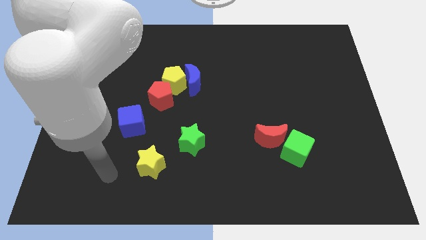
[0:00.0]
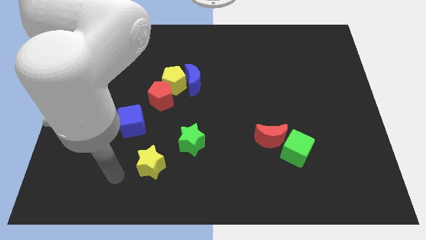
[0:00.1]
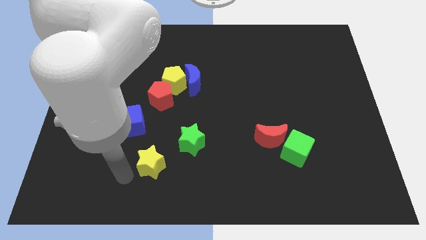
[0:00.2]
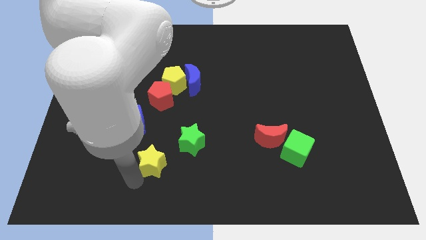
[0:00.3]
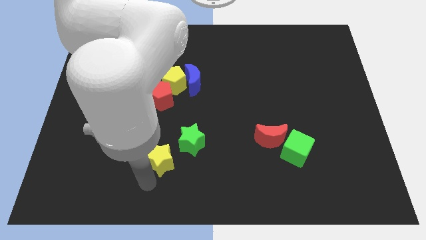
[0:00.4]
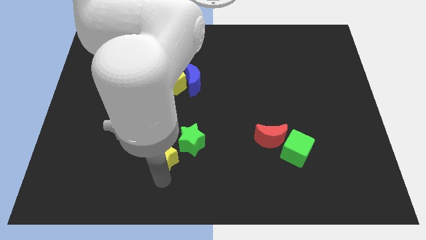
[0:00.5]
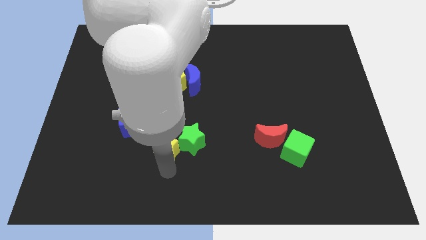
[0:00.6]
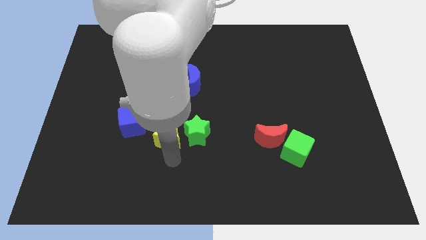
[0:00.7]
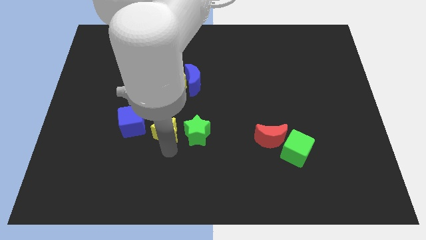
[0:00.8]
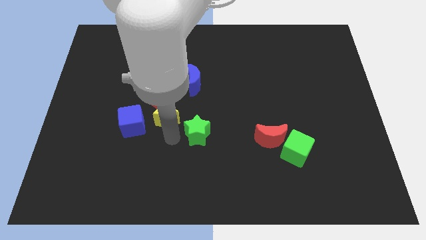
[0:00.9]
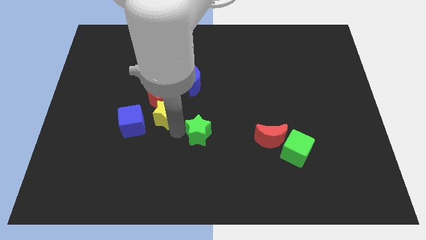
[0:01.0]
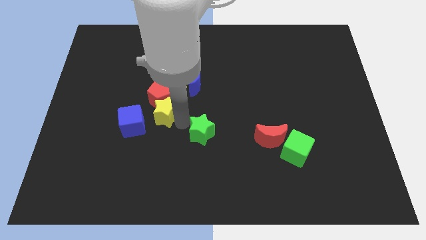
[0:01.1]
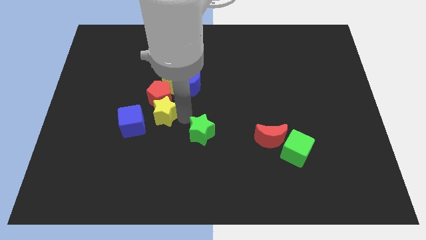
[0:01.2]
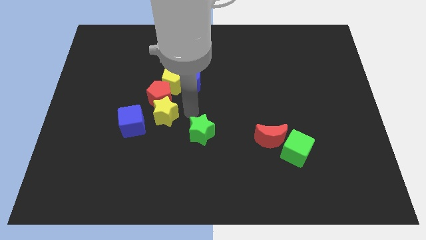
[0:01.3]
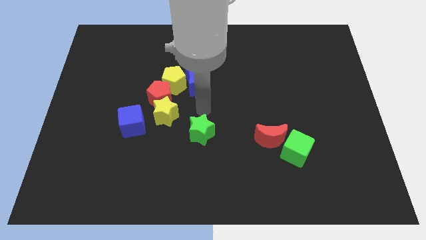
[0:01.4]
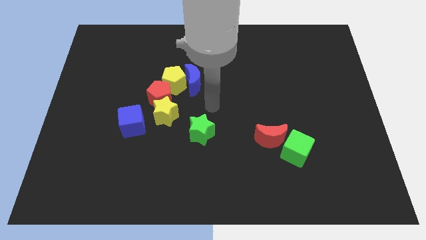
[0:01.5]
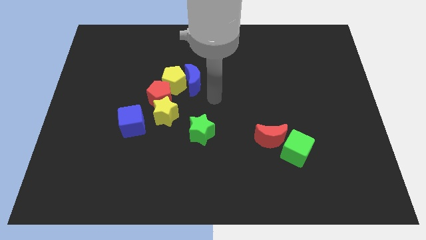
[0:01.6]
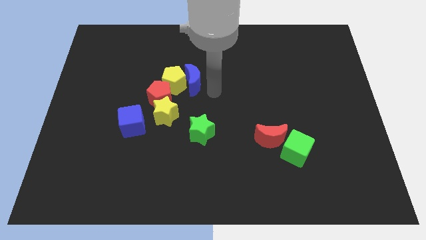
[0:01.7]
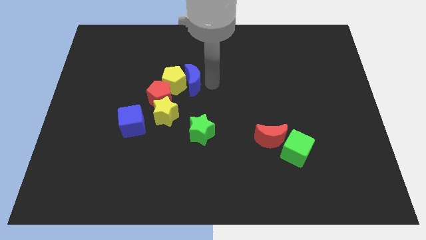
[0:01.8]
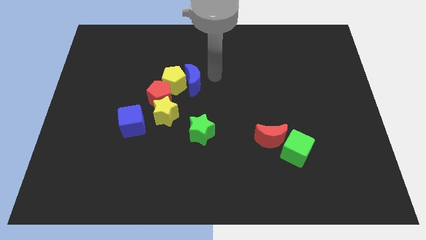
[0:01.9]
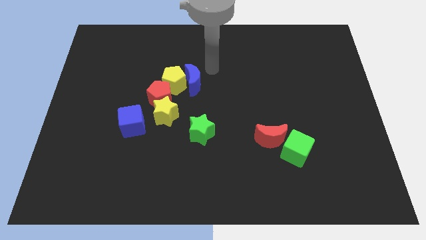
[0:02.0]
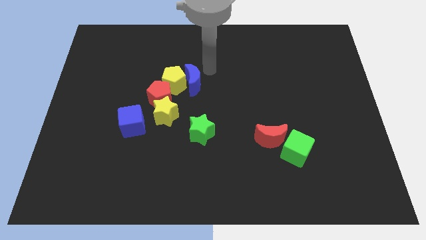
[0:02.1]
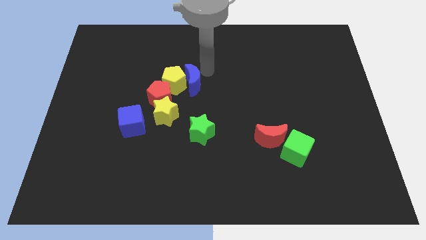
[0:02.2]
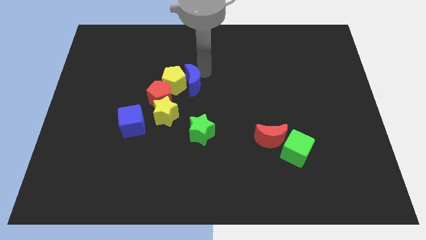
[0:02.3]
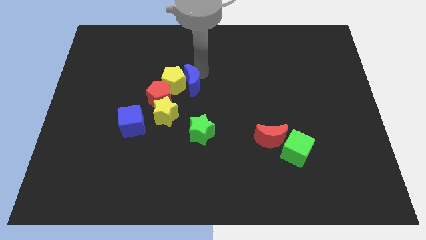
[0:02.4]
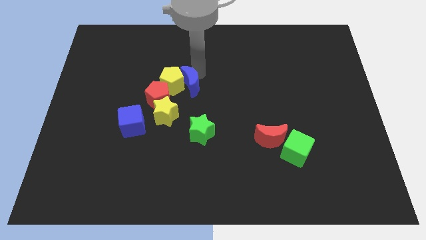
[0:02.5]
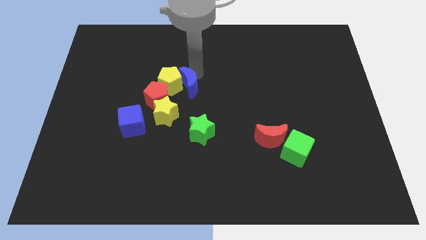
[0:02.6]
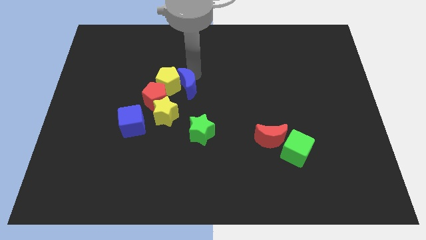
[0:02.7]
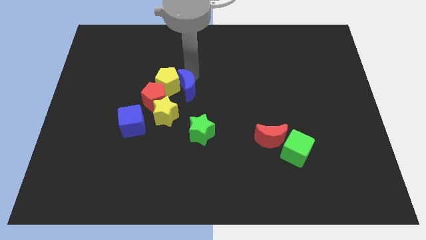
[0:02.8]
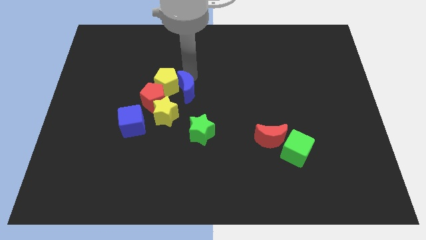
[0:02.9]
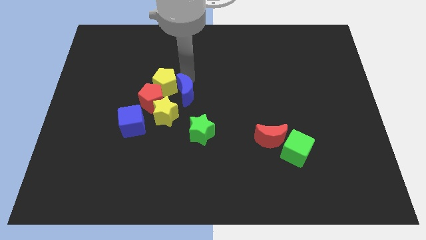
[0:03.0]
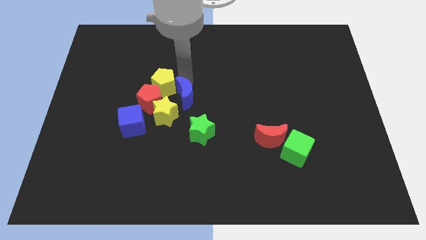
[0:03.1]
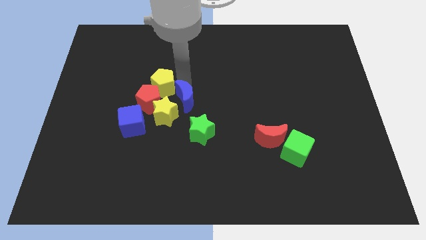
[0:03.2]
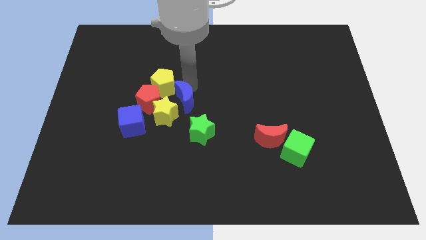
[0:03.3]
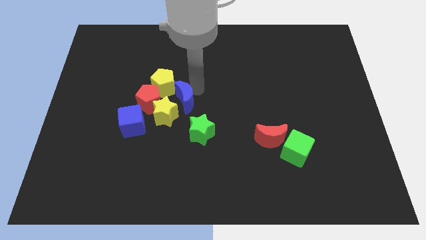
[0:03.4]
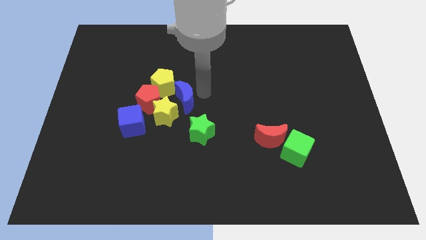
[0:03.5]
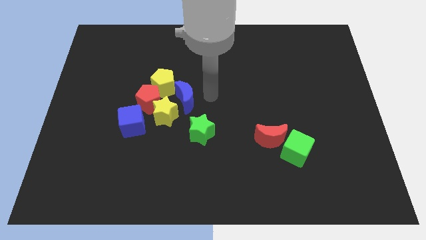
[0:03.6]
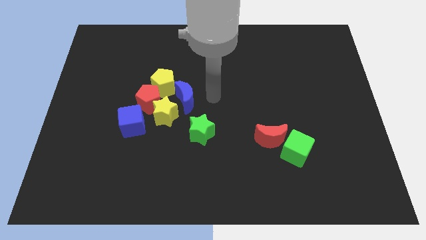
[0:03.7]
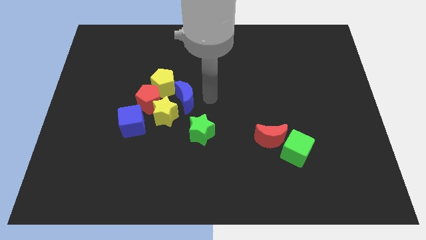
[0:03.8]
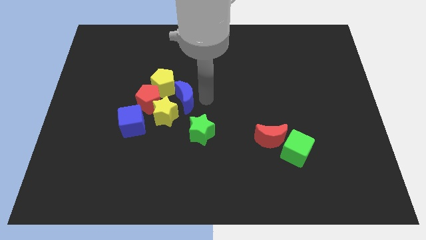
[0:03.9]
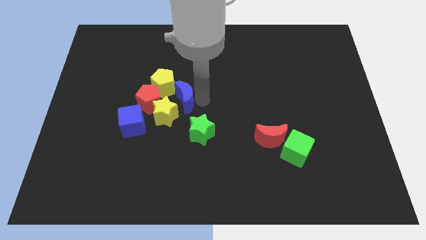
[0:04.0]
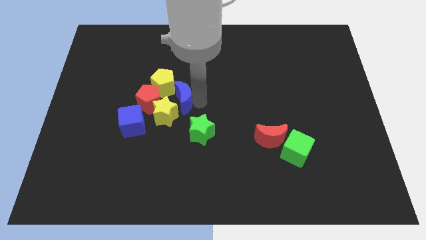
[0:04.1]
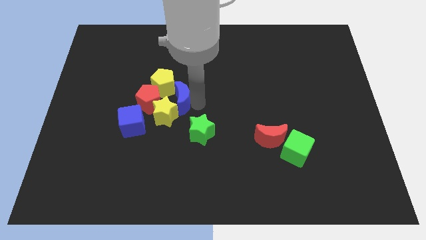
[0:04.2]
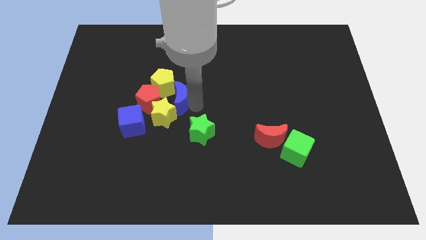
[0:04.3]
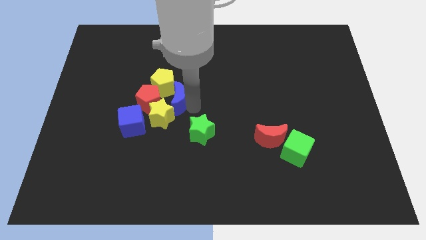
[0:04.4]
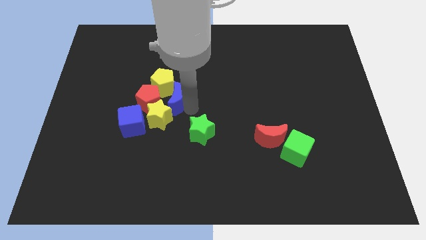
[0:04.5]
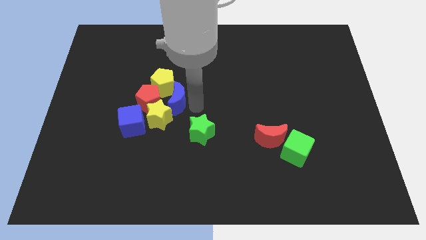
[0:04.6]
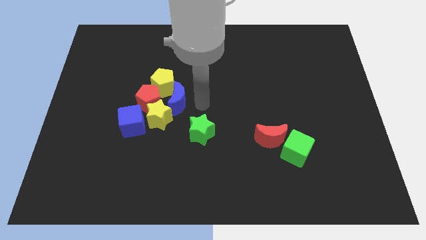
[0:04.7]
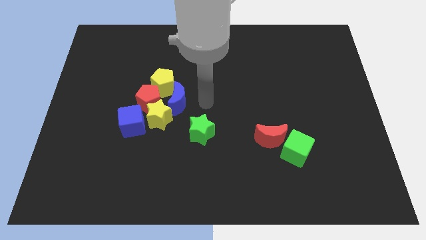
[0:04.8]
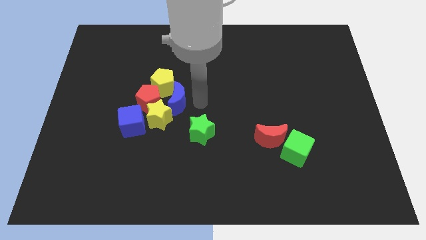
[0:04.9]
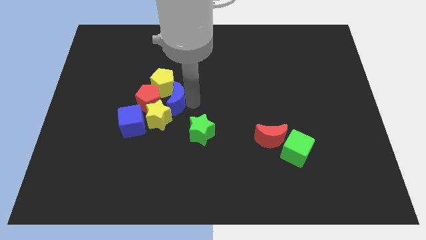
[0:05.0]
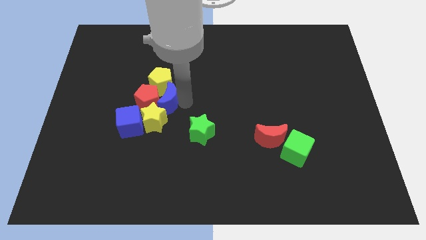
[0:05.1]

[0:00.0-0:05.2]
push the blue moon towards the red pentagon

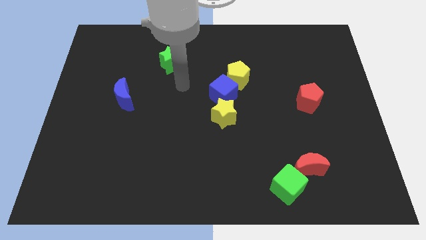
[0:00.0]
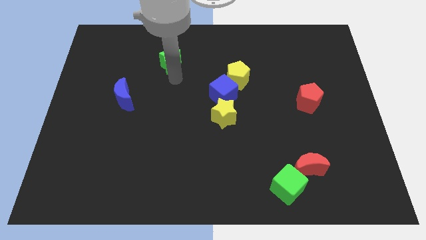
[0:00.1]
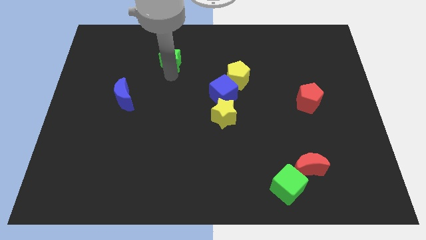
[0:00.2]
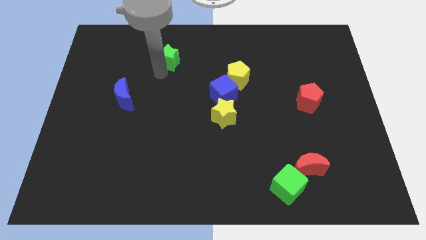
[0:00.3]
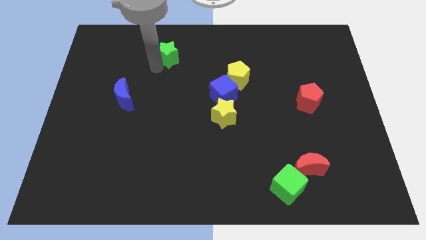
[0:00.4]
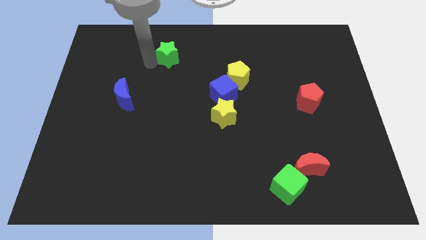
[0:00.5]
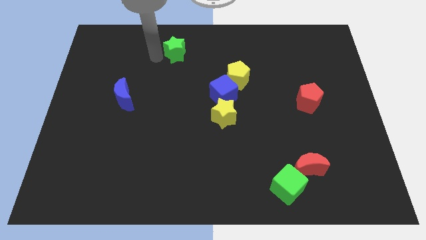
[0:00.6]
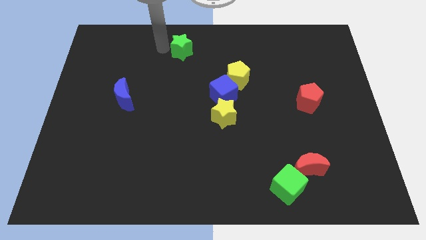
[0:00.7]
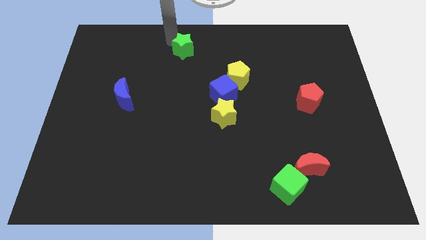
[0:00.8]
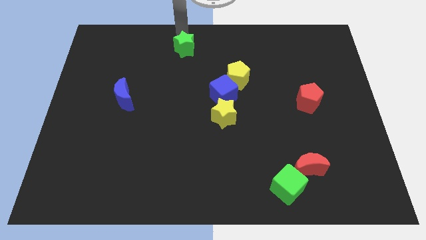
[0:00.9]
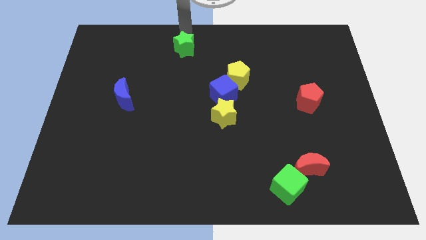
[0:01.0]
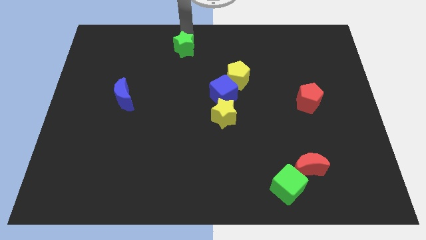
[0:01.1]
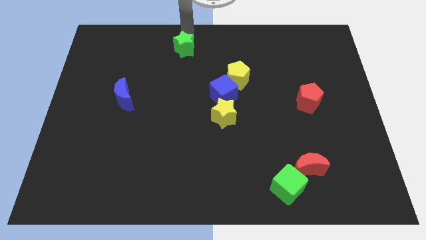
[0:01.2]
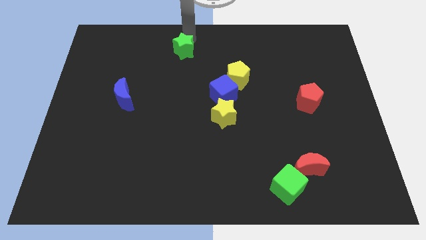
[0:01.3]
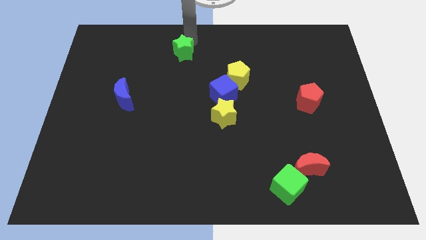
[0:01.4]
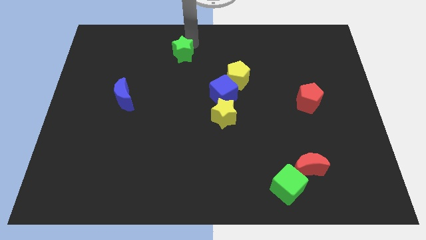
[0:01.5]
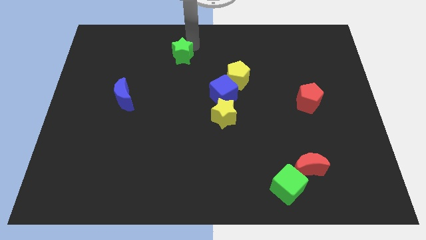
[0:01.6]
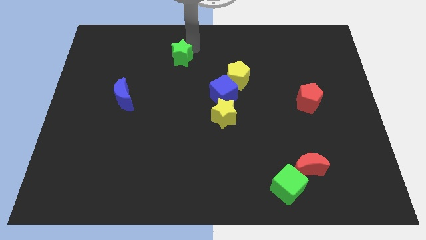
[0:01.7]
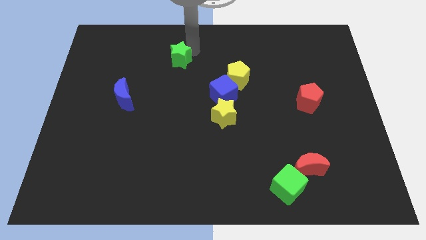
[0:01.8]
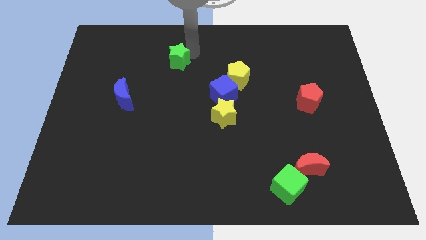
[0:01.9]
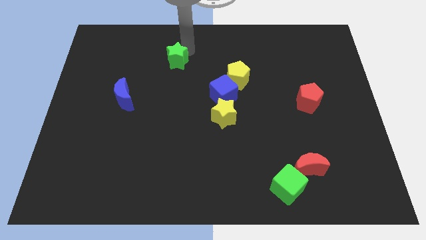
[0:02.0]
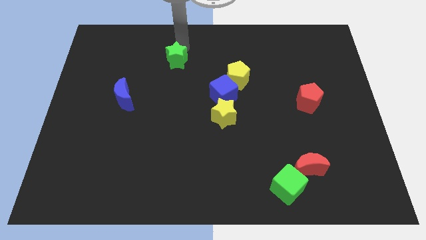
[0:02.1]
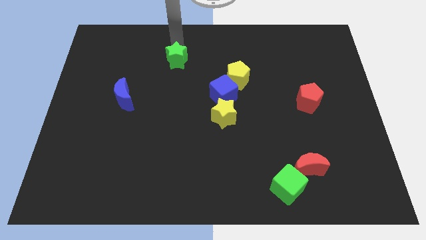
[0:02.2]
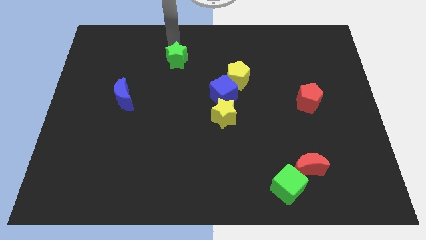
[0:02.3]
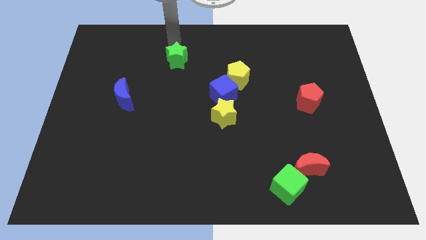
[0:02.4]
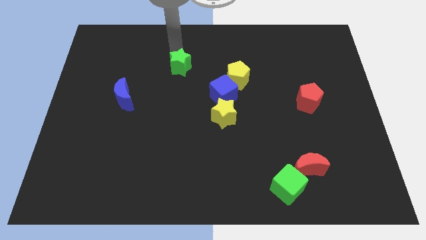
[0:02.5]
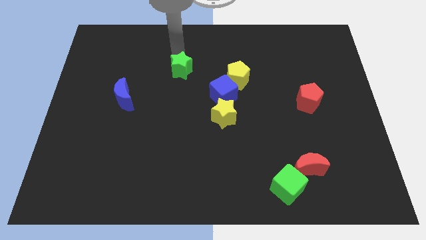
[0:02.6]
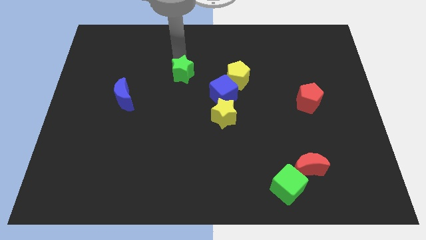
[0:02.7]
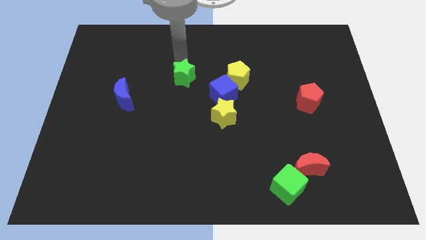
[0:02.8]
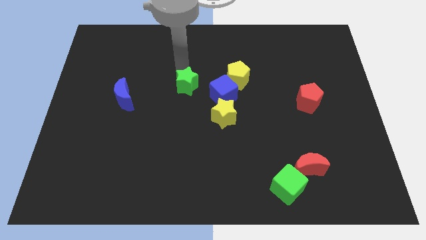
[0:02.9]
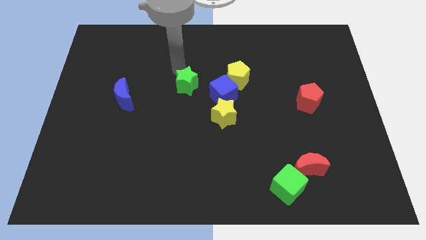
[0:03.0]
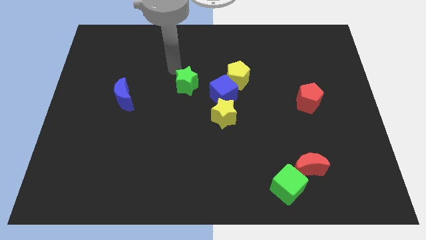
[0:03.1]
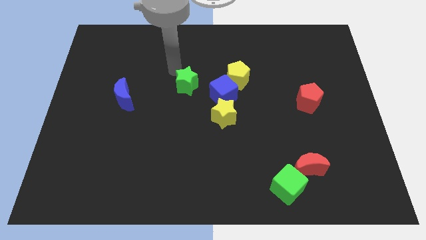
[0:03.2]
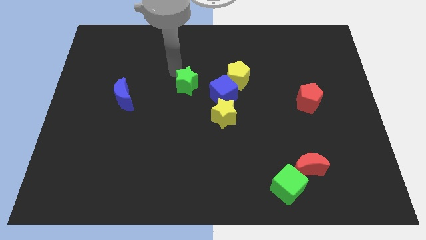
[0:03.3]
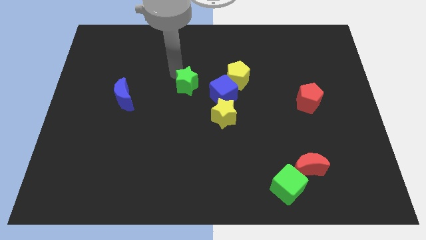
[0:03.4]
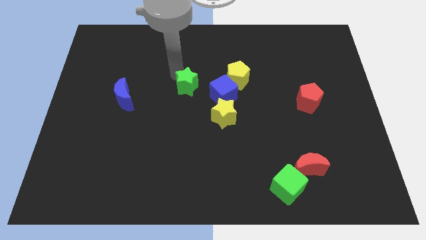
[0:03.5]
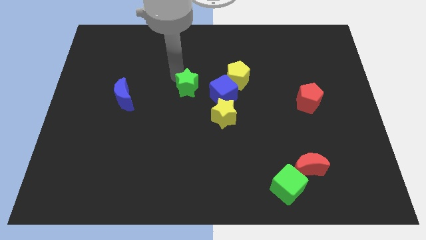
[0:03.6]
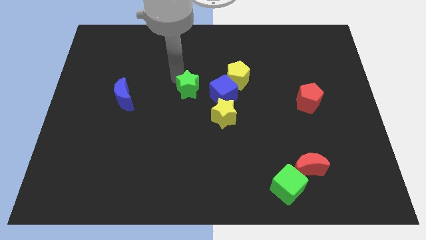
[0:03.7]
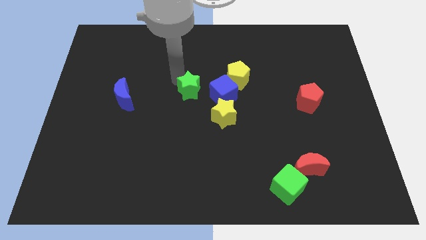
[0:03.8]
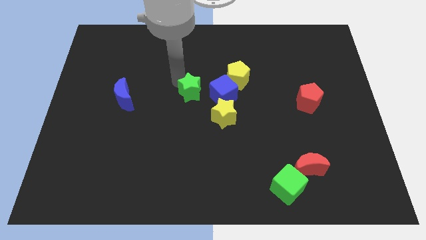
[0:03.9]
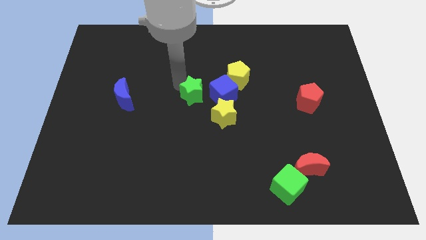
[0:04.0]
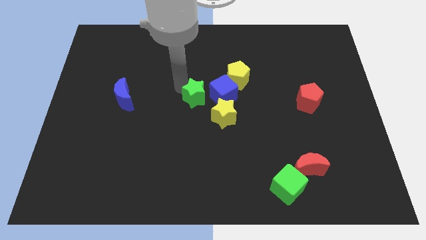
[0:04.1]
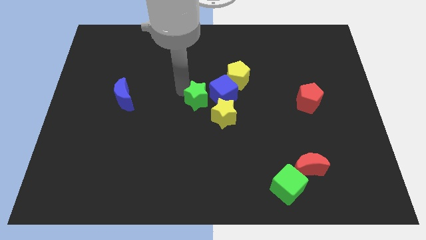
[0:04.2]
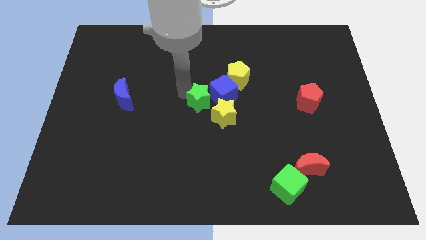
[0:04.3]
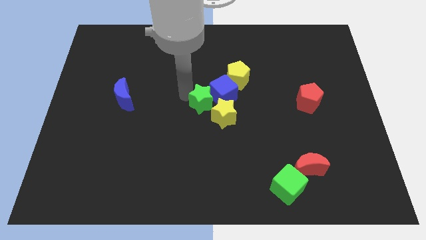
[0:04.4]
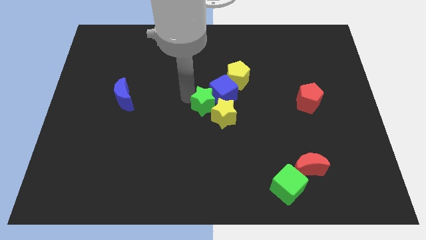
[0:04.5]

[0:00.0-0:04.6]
slide the green star towards the yellow star
